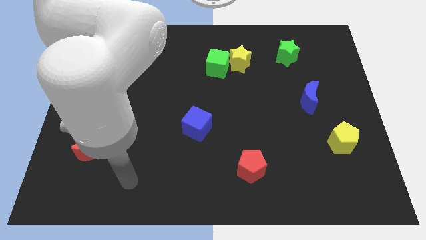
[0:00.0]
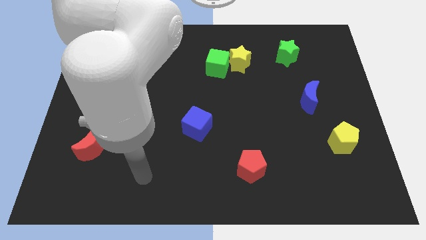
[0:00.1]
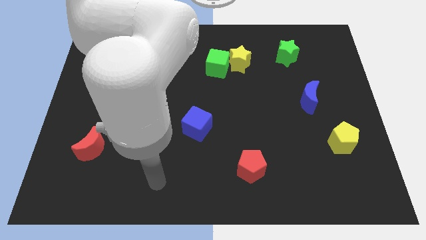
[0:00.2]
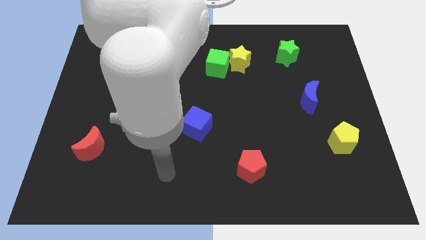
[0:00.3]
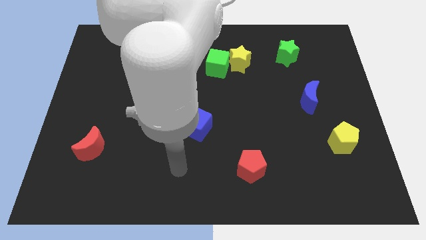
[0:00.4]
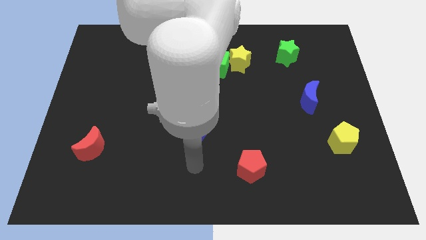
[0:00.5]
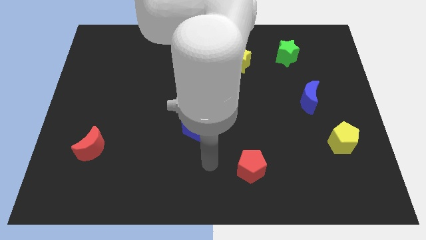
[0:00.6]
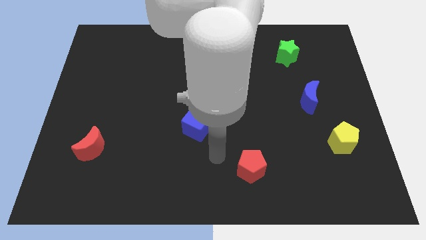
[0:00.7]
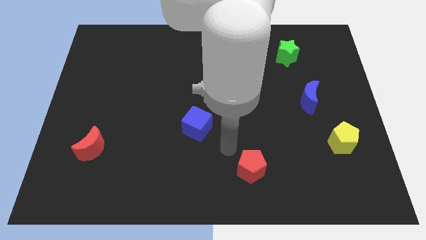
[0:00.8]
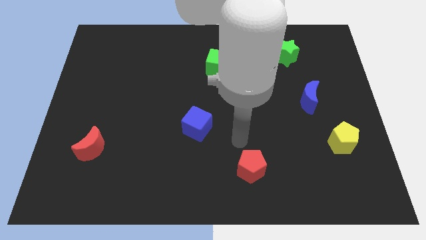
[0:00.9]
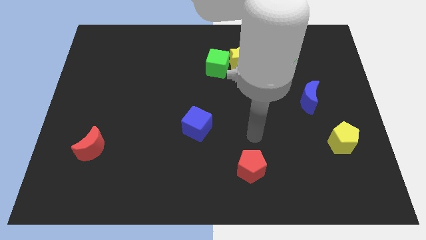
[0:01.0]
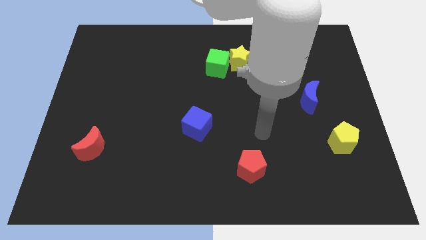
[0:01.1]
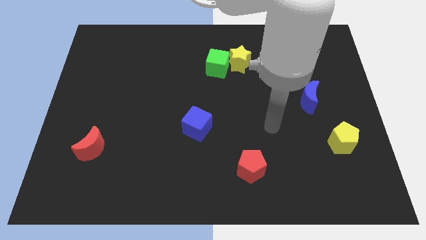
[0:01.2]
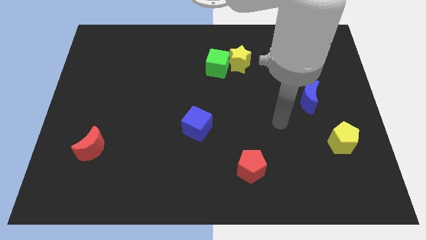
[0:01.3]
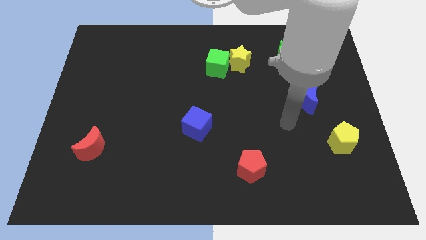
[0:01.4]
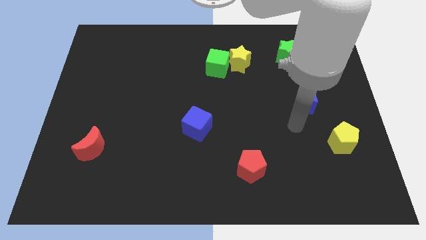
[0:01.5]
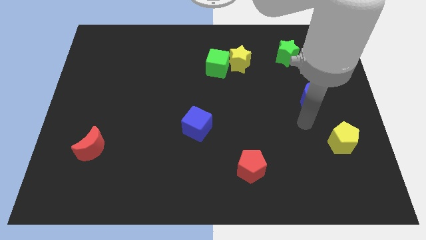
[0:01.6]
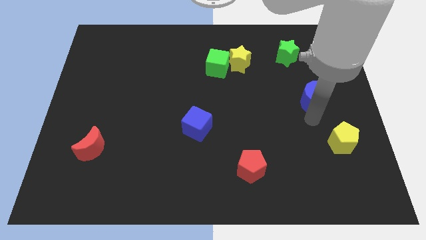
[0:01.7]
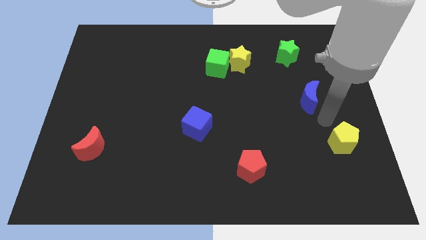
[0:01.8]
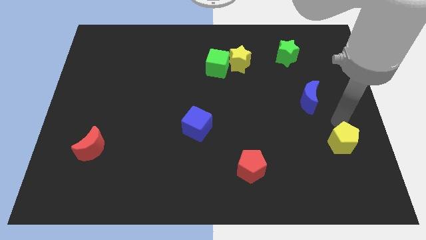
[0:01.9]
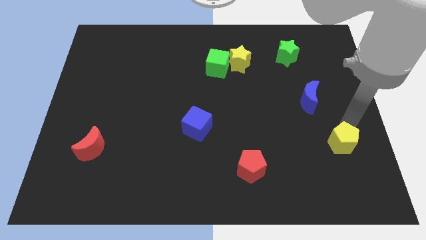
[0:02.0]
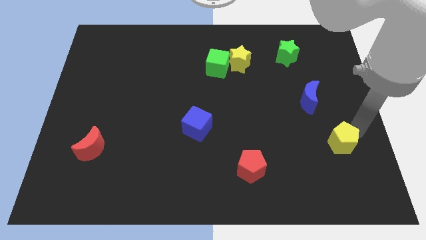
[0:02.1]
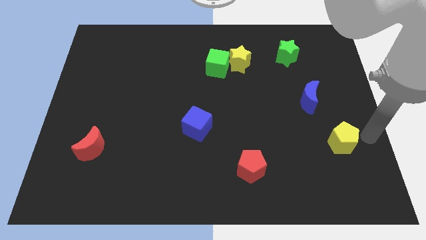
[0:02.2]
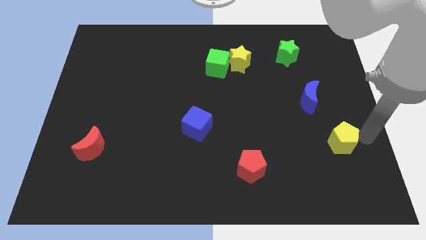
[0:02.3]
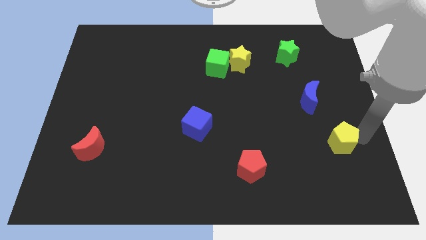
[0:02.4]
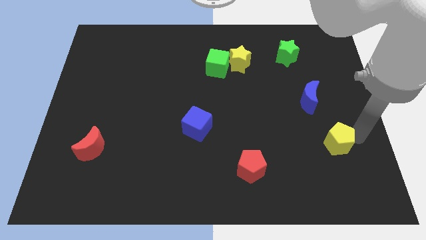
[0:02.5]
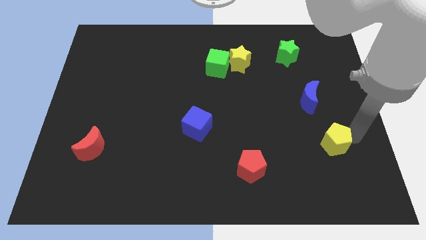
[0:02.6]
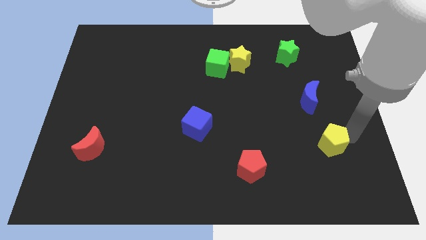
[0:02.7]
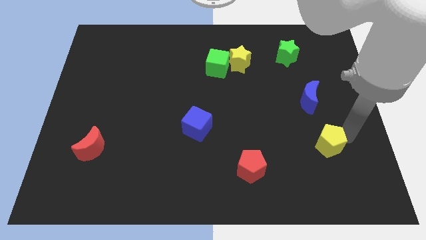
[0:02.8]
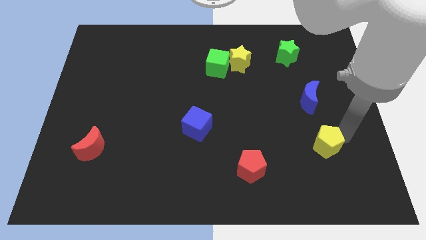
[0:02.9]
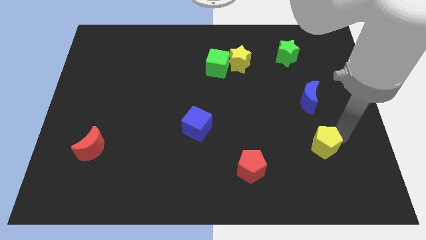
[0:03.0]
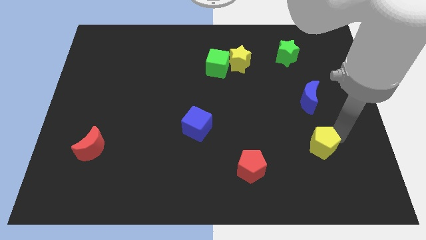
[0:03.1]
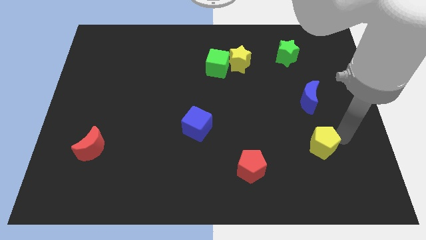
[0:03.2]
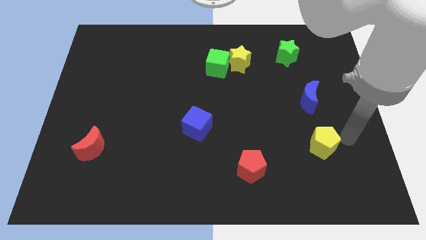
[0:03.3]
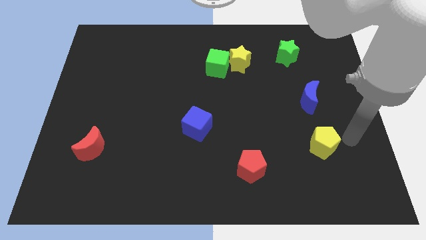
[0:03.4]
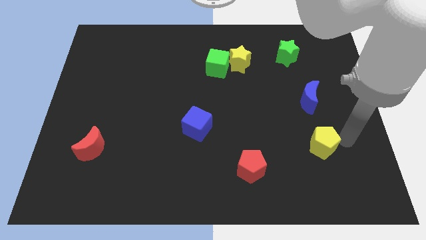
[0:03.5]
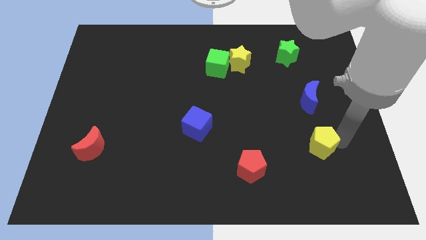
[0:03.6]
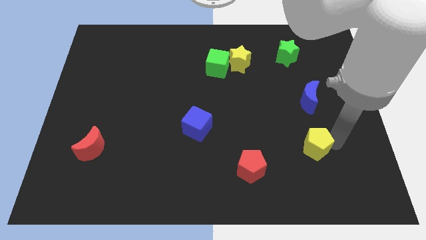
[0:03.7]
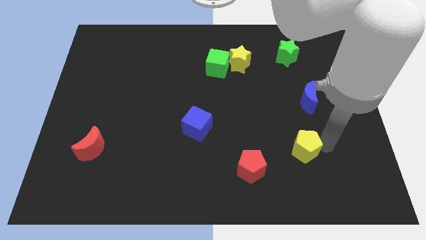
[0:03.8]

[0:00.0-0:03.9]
slide the yellow pentagon a little left

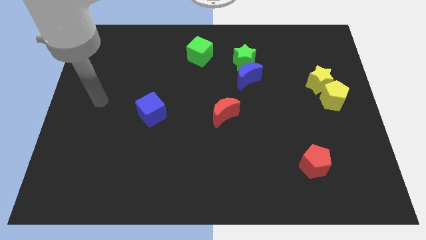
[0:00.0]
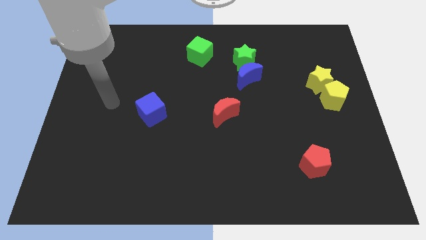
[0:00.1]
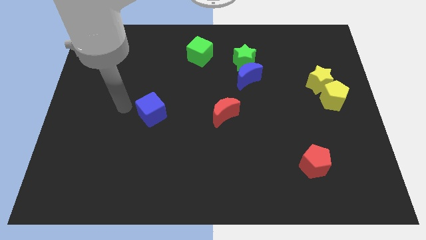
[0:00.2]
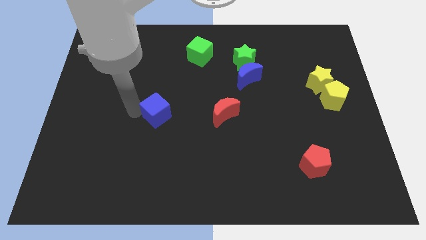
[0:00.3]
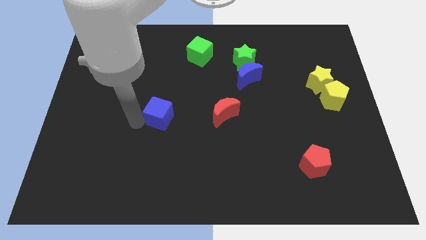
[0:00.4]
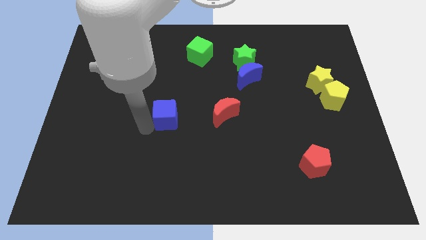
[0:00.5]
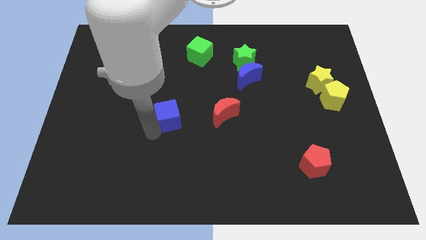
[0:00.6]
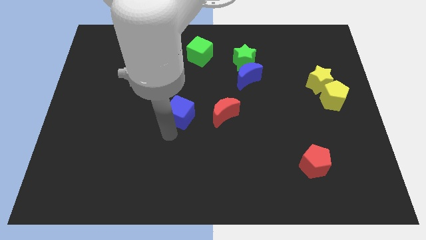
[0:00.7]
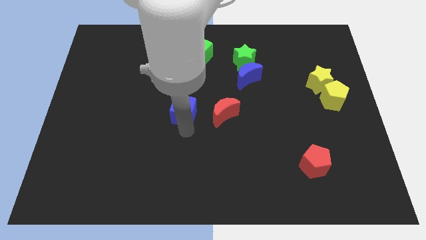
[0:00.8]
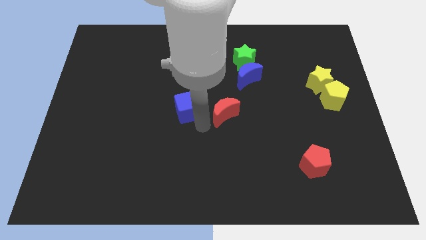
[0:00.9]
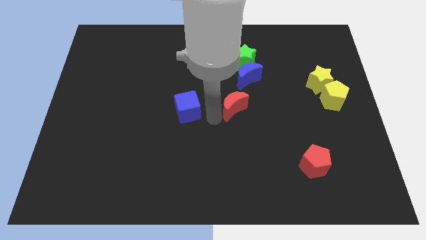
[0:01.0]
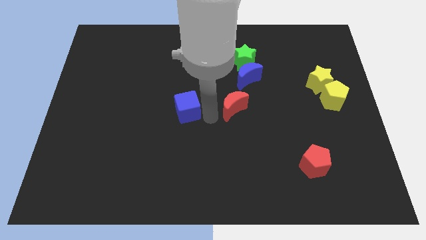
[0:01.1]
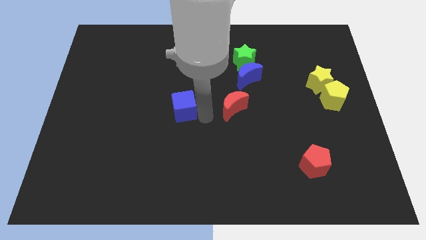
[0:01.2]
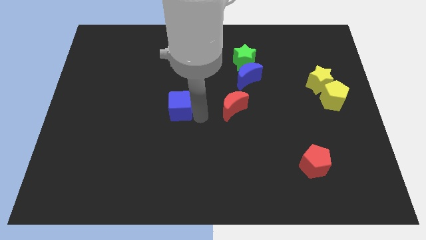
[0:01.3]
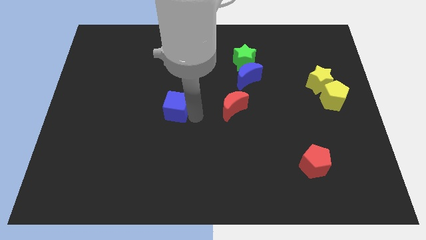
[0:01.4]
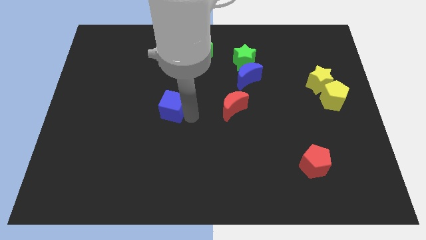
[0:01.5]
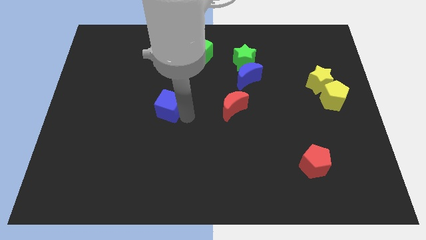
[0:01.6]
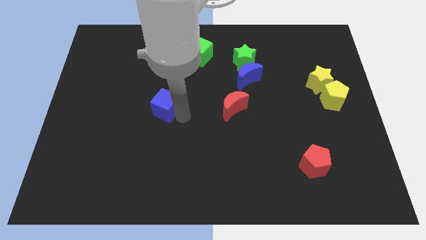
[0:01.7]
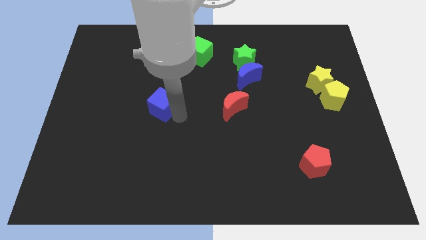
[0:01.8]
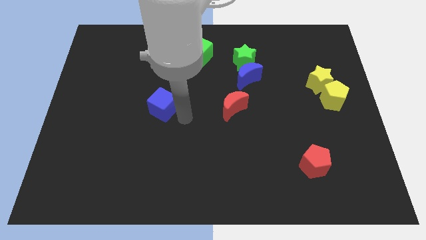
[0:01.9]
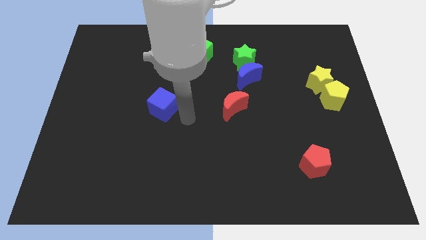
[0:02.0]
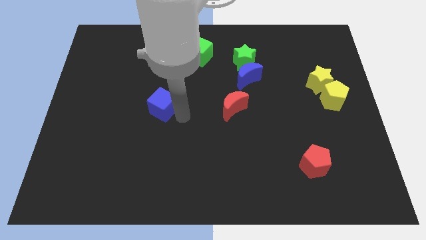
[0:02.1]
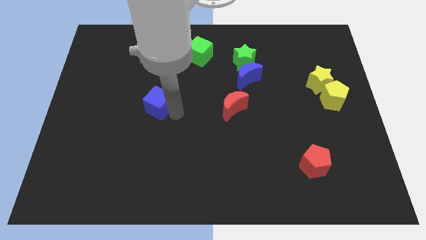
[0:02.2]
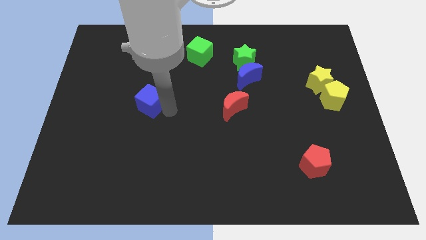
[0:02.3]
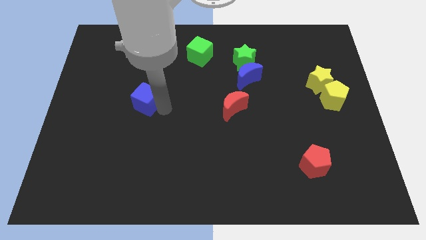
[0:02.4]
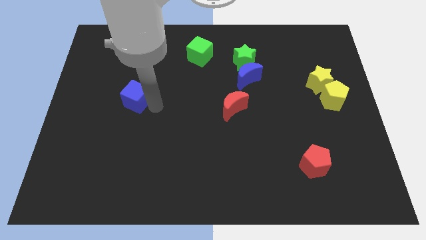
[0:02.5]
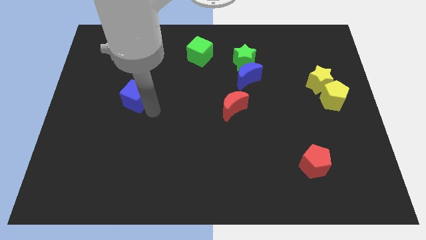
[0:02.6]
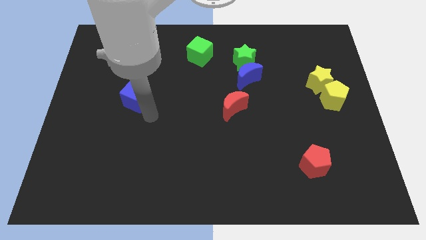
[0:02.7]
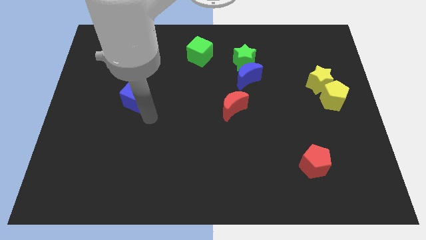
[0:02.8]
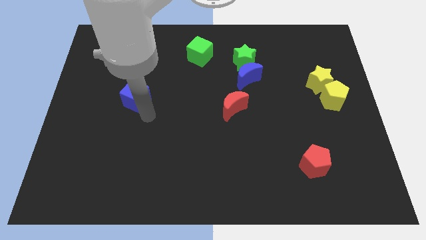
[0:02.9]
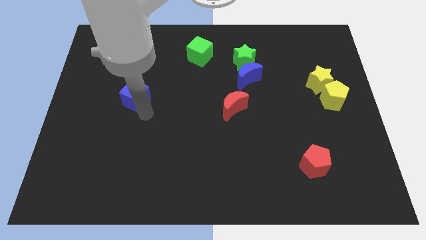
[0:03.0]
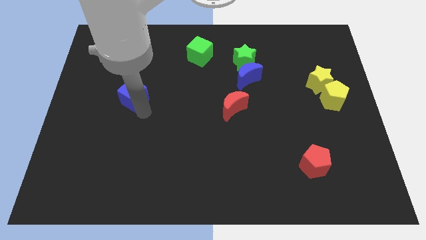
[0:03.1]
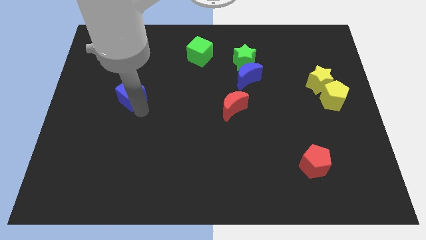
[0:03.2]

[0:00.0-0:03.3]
slightly move the blue cube upwards and left diagonally

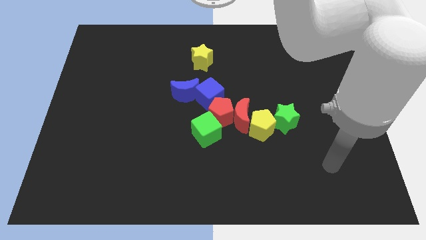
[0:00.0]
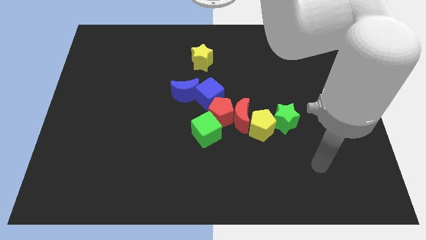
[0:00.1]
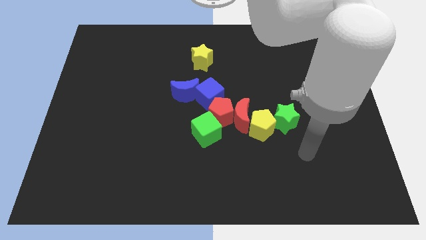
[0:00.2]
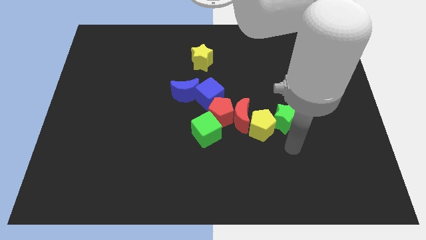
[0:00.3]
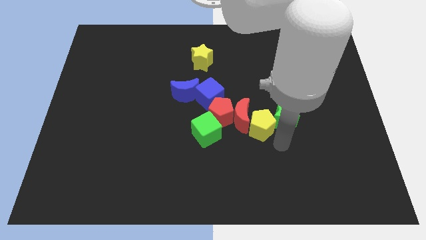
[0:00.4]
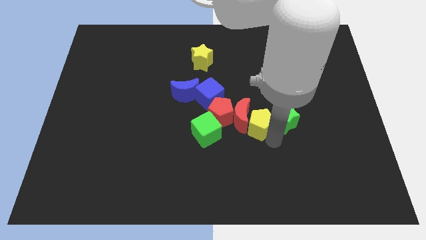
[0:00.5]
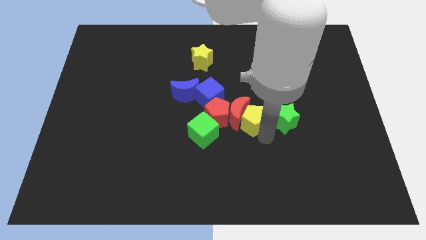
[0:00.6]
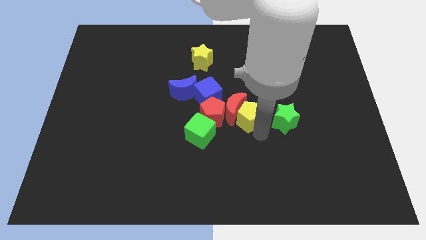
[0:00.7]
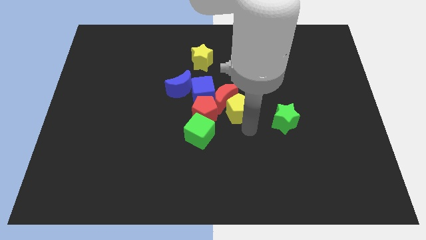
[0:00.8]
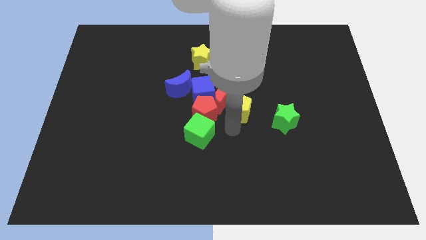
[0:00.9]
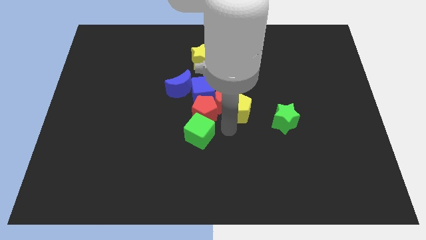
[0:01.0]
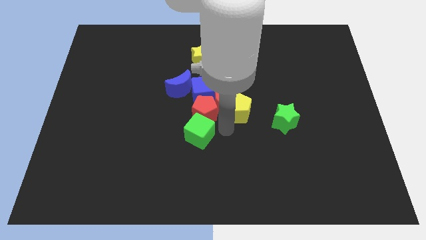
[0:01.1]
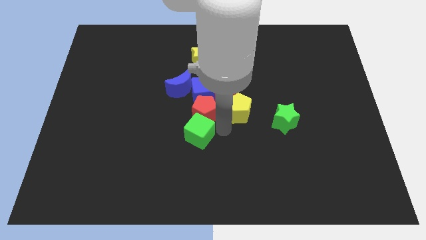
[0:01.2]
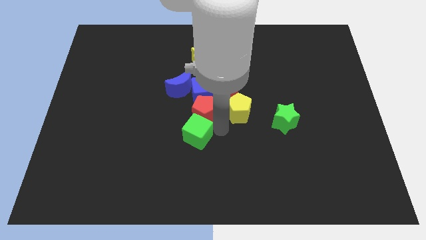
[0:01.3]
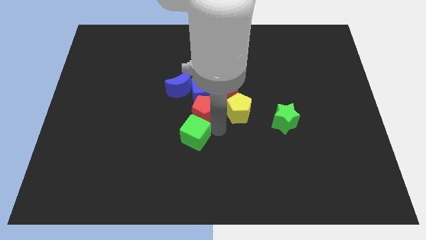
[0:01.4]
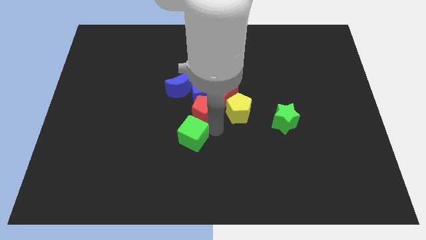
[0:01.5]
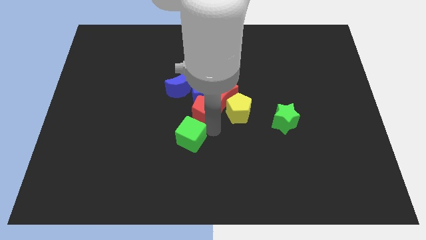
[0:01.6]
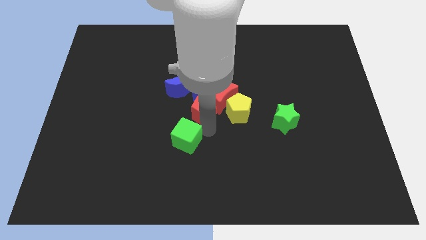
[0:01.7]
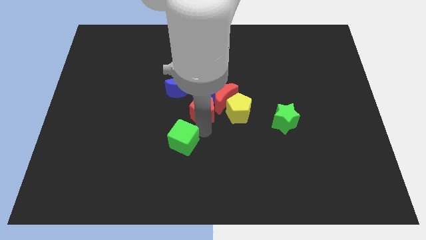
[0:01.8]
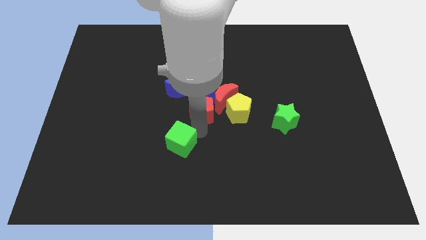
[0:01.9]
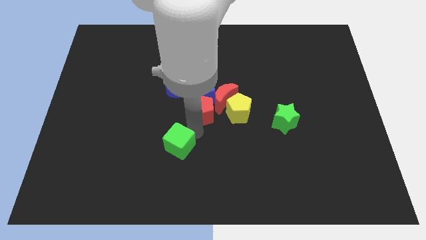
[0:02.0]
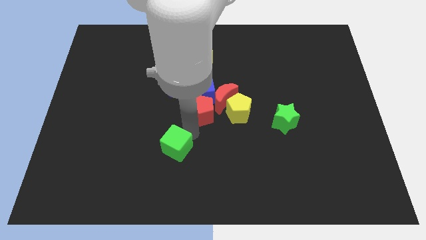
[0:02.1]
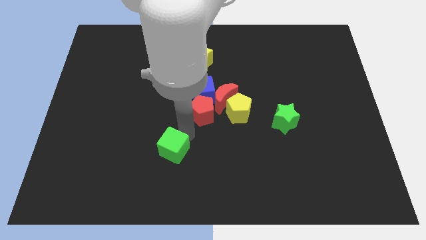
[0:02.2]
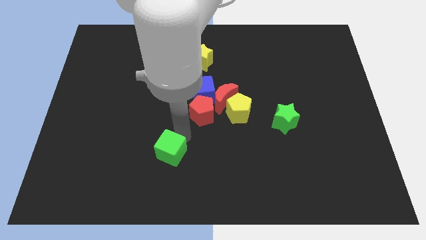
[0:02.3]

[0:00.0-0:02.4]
slightly slide the green cube left
